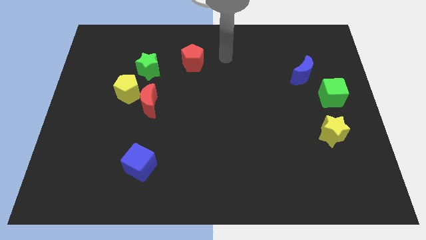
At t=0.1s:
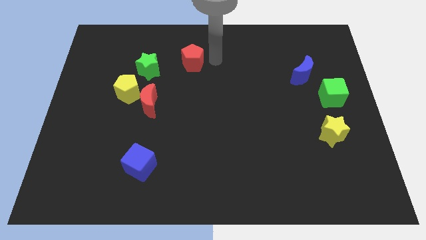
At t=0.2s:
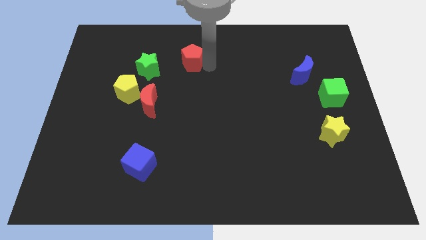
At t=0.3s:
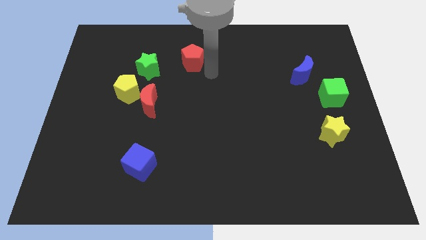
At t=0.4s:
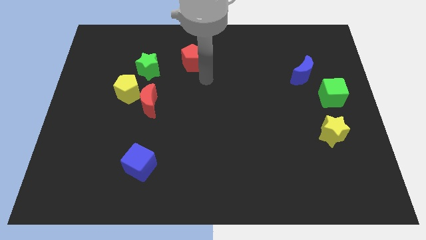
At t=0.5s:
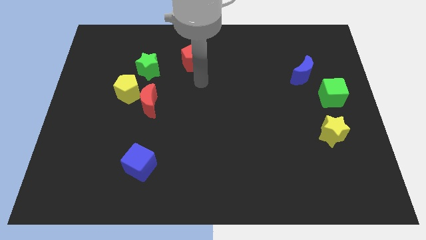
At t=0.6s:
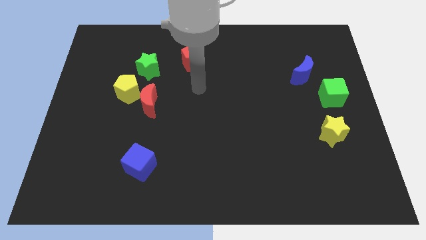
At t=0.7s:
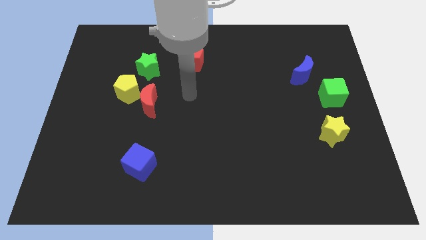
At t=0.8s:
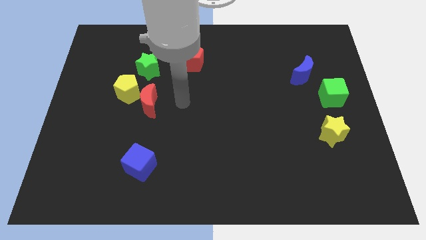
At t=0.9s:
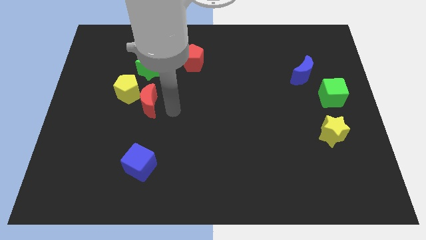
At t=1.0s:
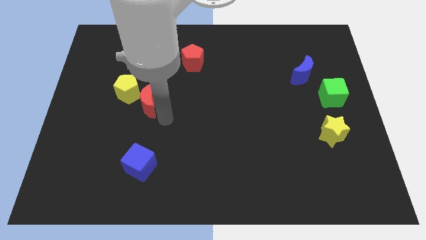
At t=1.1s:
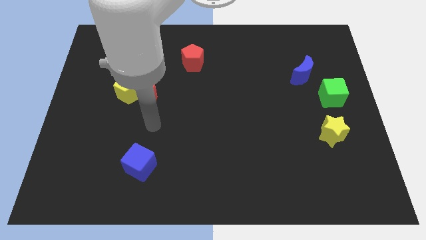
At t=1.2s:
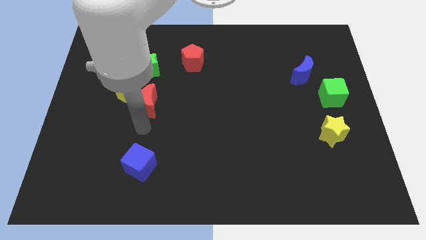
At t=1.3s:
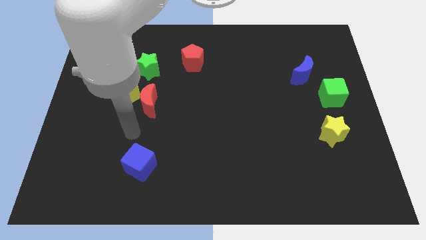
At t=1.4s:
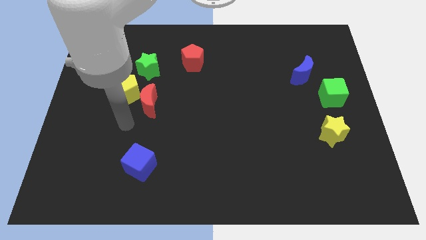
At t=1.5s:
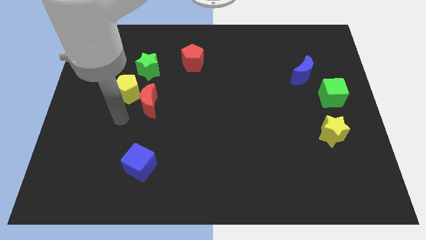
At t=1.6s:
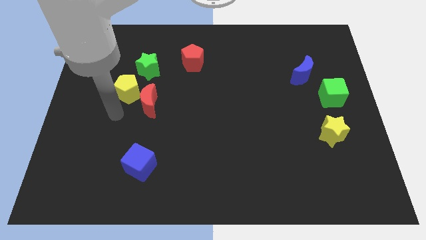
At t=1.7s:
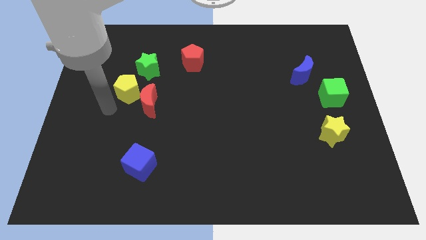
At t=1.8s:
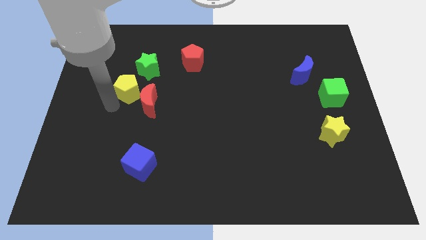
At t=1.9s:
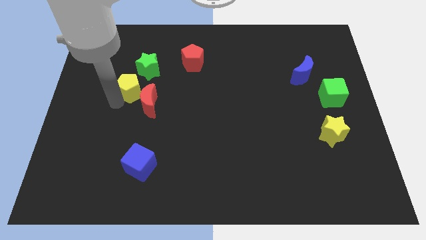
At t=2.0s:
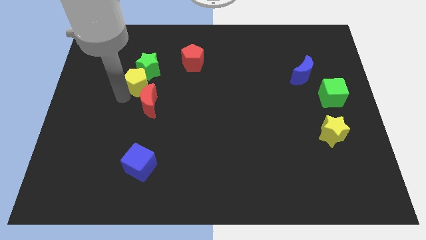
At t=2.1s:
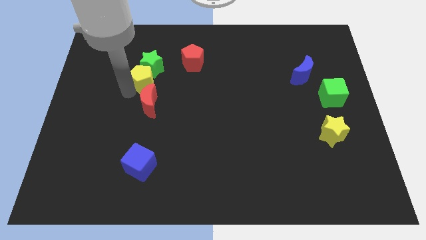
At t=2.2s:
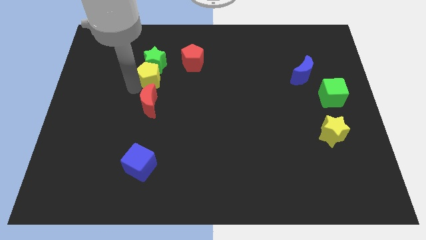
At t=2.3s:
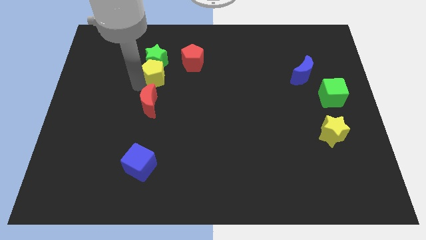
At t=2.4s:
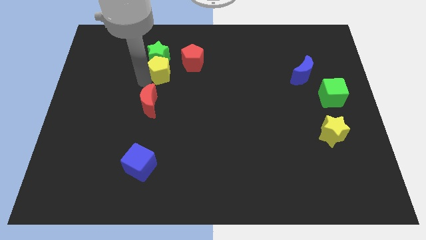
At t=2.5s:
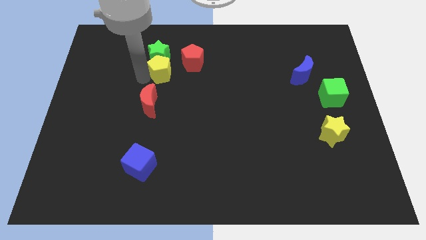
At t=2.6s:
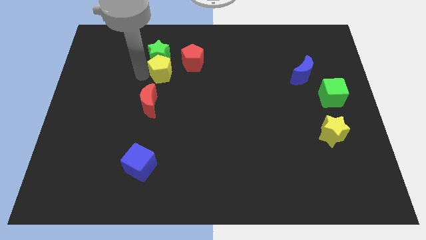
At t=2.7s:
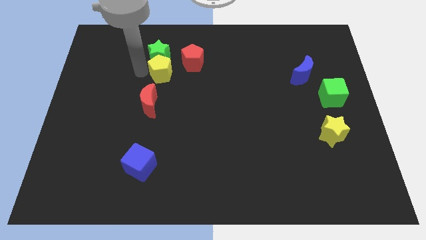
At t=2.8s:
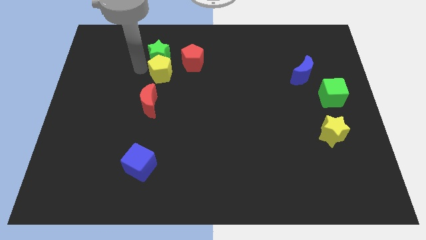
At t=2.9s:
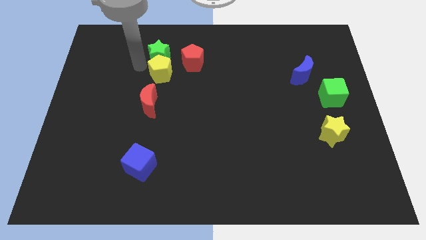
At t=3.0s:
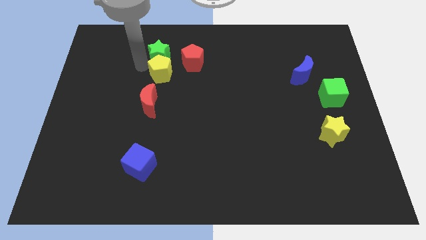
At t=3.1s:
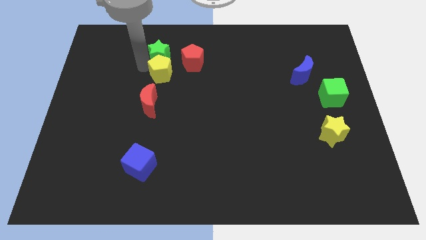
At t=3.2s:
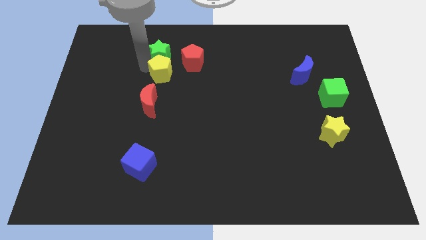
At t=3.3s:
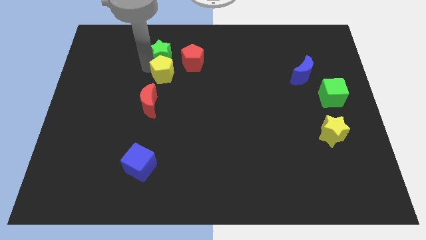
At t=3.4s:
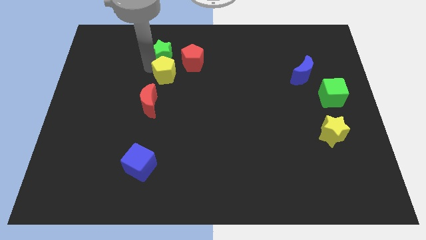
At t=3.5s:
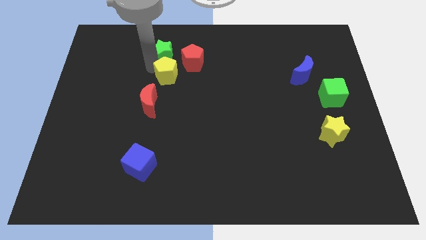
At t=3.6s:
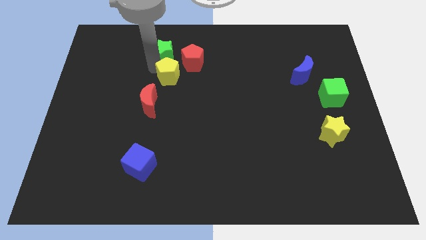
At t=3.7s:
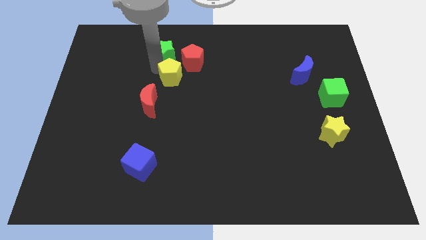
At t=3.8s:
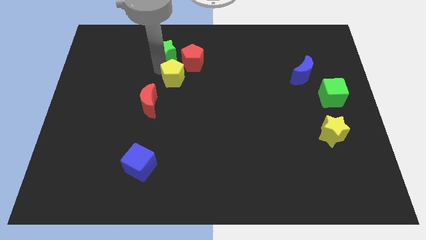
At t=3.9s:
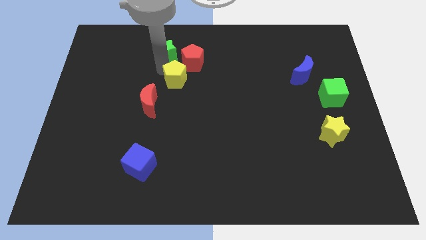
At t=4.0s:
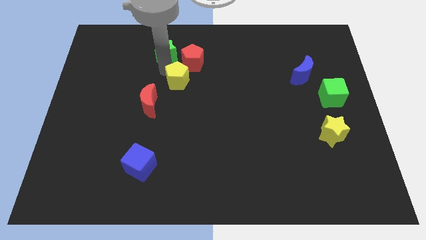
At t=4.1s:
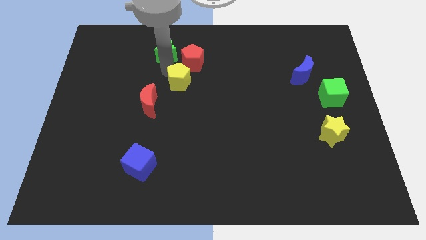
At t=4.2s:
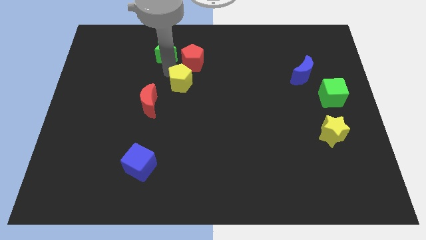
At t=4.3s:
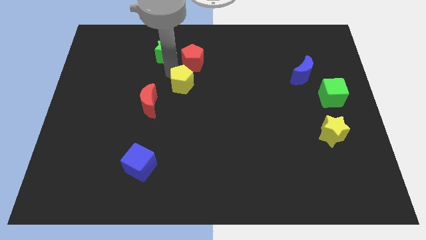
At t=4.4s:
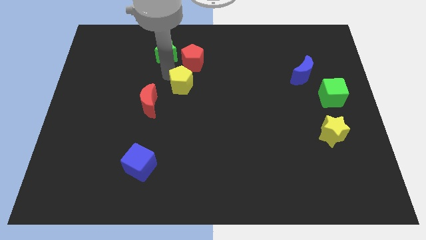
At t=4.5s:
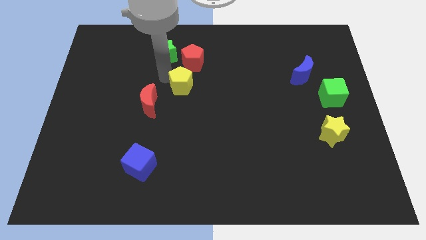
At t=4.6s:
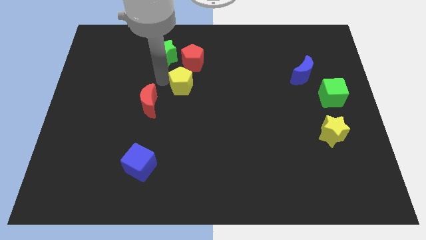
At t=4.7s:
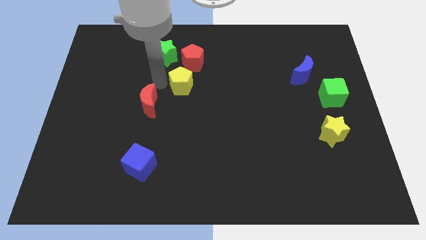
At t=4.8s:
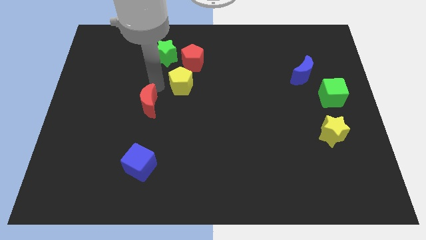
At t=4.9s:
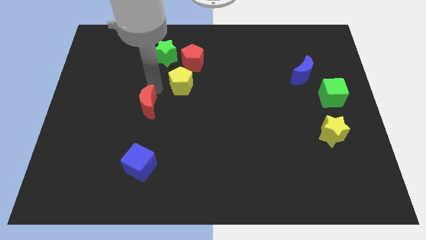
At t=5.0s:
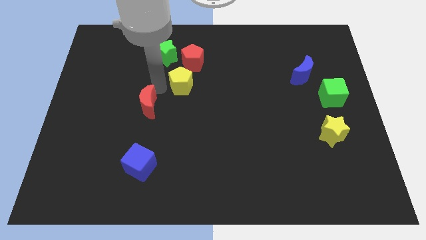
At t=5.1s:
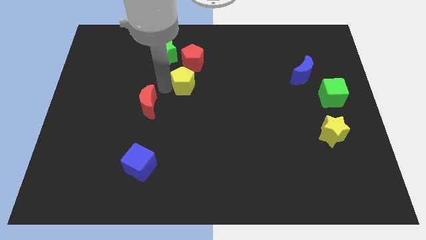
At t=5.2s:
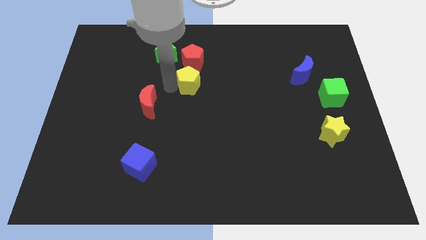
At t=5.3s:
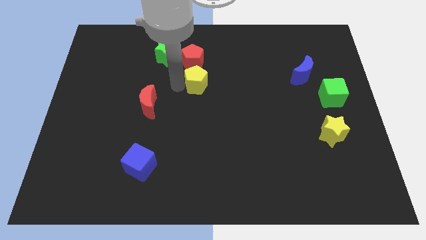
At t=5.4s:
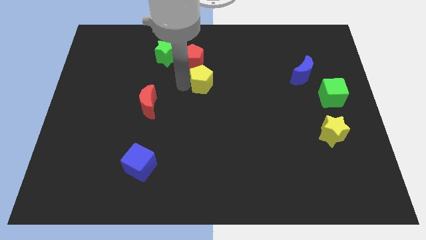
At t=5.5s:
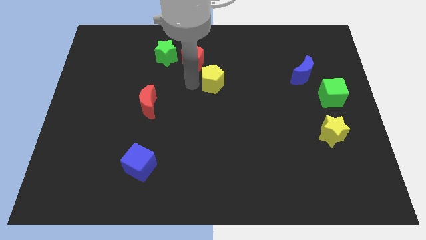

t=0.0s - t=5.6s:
move the yellow pentagon to the right

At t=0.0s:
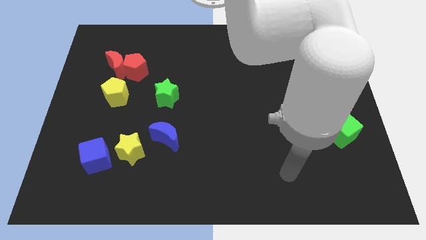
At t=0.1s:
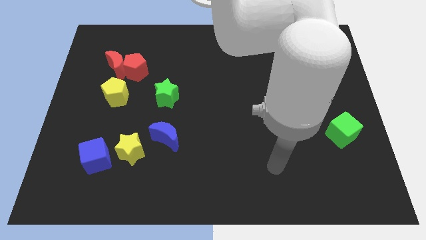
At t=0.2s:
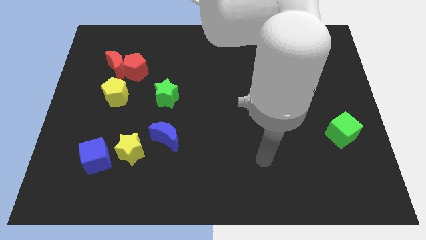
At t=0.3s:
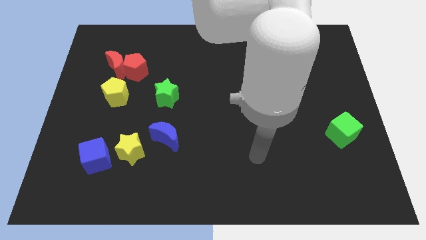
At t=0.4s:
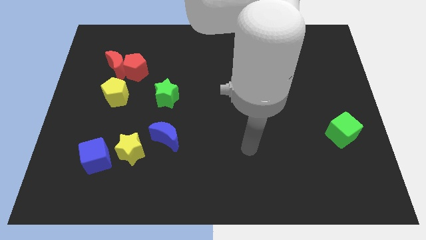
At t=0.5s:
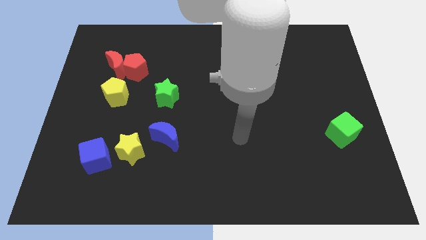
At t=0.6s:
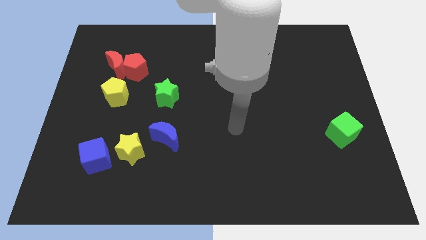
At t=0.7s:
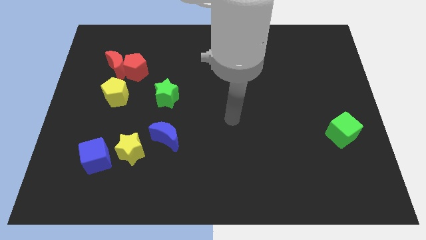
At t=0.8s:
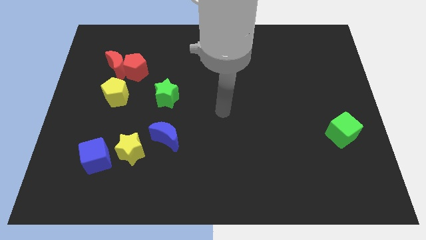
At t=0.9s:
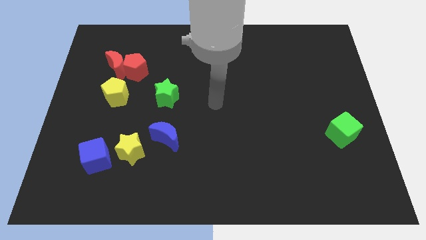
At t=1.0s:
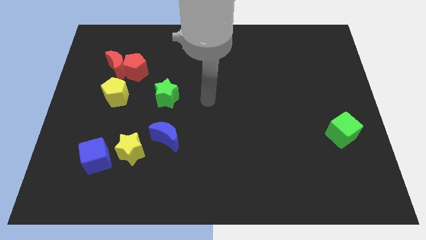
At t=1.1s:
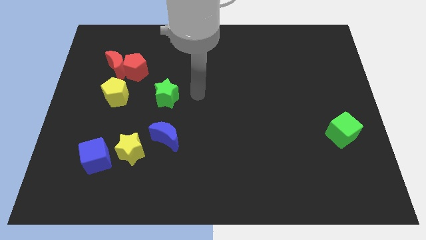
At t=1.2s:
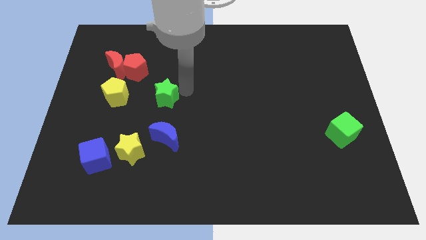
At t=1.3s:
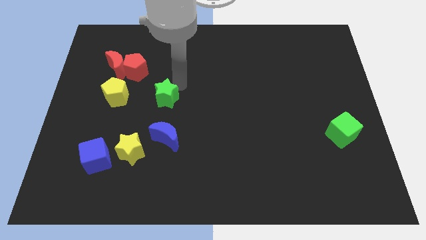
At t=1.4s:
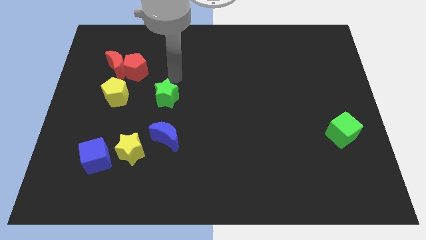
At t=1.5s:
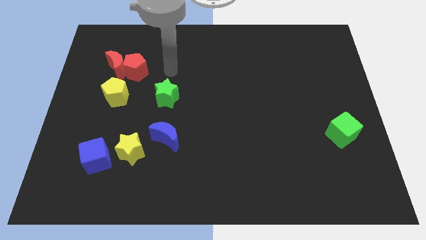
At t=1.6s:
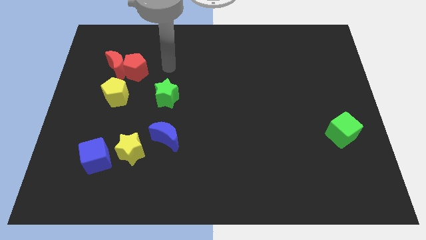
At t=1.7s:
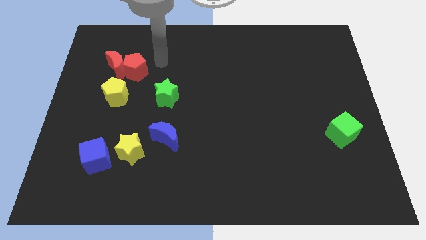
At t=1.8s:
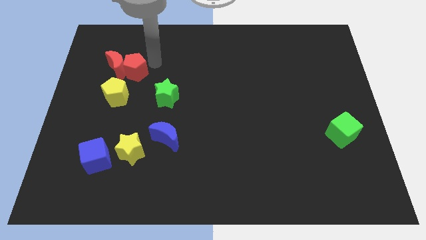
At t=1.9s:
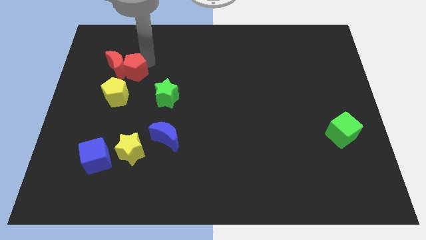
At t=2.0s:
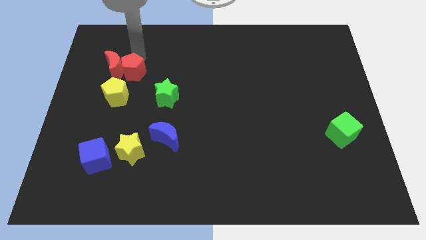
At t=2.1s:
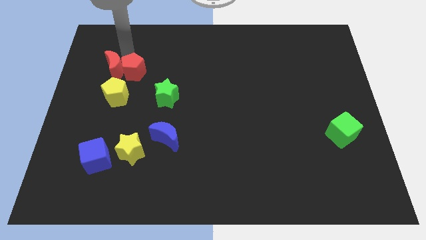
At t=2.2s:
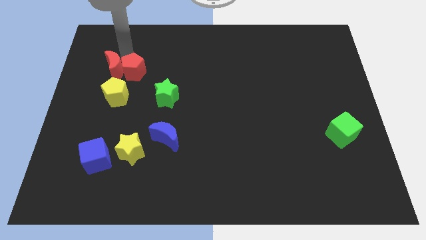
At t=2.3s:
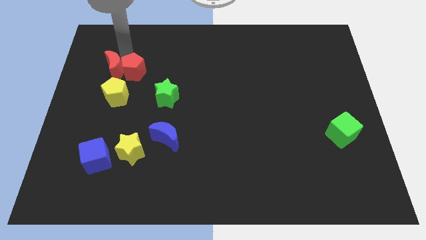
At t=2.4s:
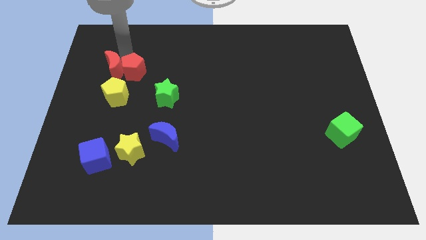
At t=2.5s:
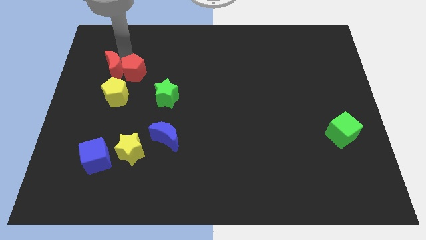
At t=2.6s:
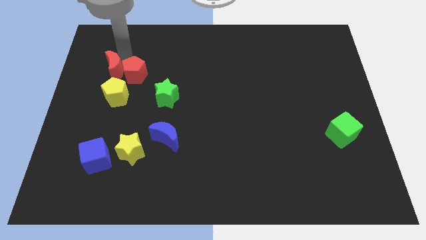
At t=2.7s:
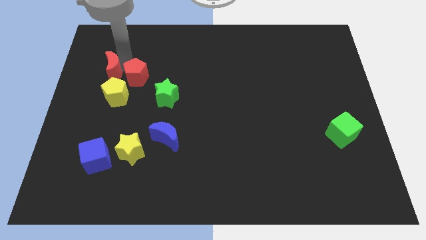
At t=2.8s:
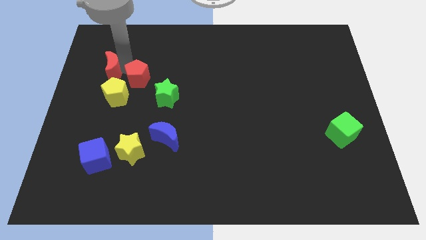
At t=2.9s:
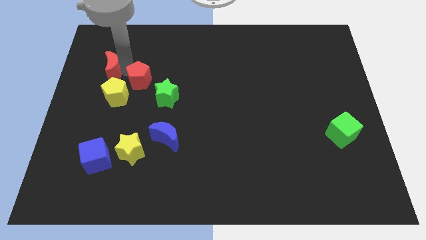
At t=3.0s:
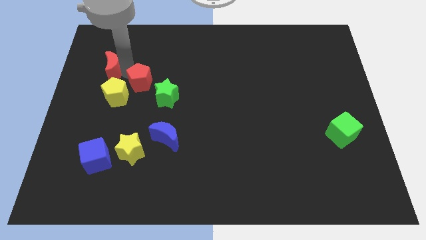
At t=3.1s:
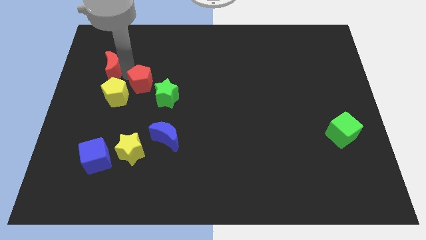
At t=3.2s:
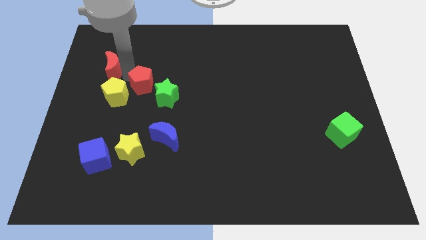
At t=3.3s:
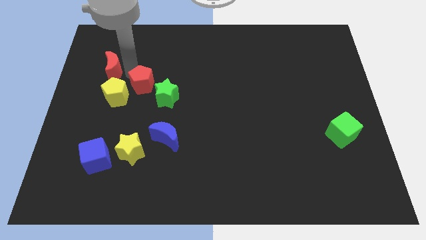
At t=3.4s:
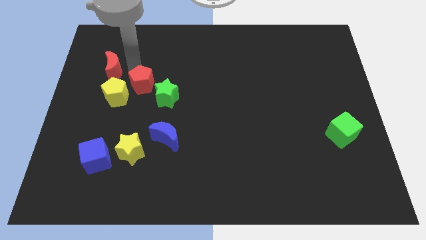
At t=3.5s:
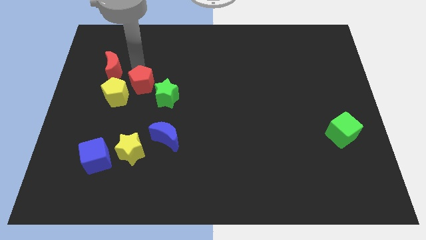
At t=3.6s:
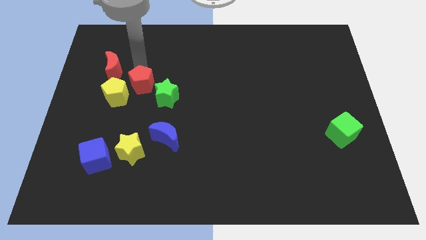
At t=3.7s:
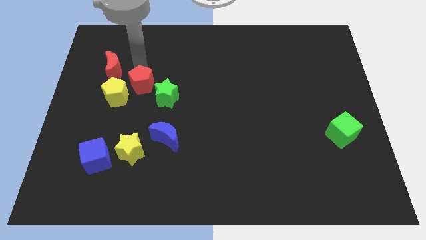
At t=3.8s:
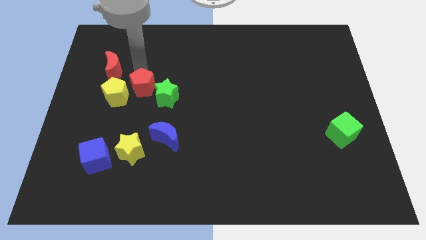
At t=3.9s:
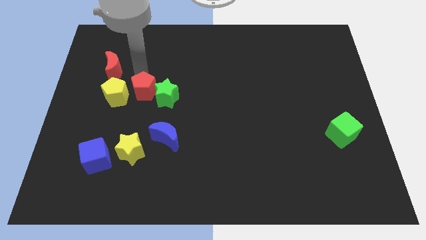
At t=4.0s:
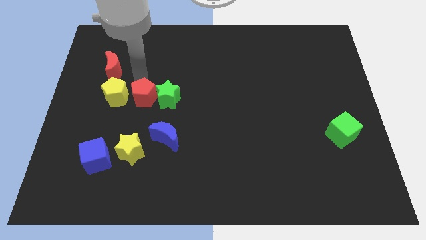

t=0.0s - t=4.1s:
push the red pentagon down and right diagonally a little bit
